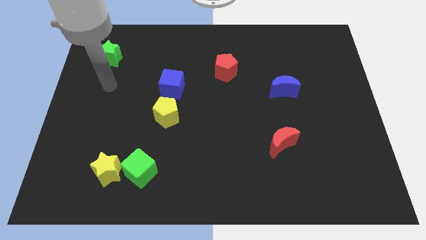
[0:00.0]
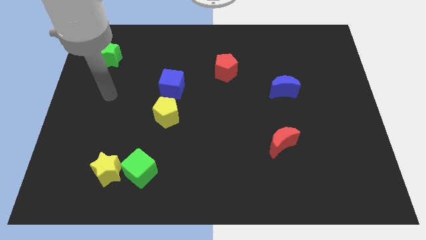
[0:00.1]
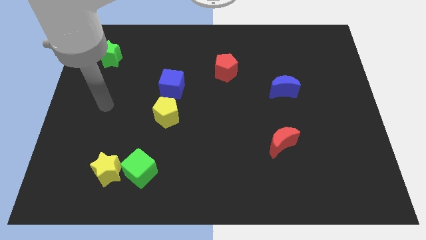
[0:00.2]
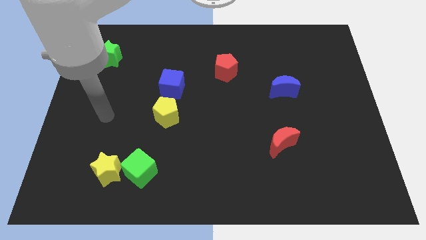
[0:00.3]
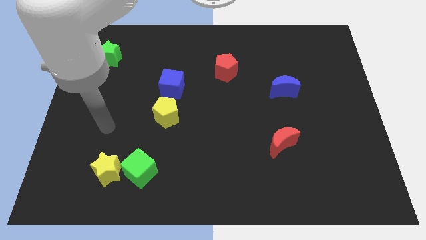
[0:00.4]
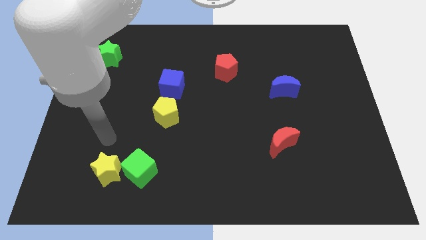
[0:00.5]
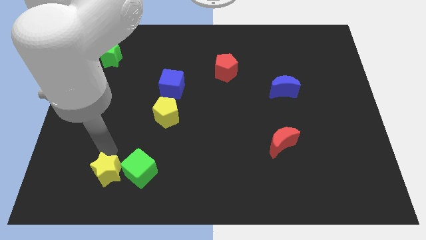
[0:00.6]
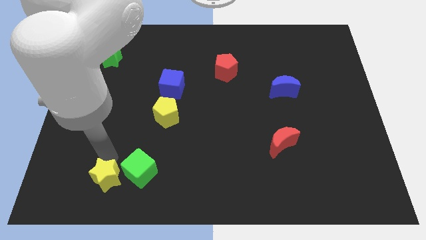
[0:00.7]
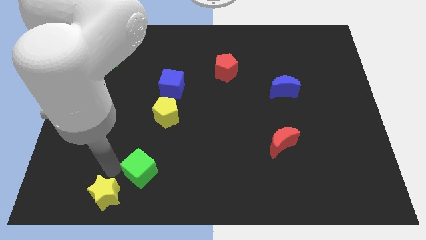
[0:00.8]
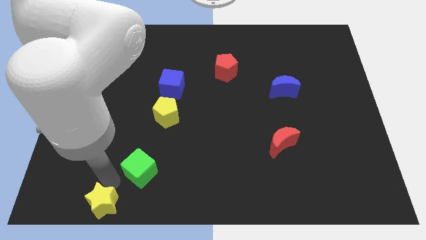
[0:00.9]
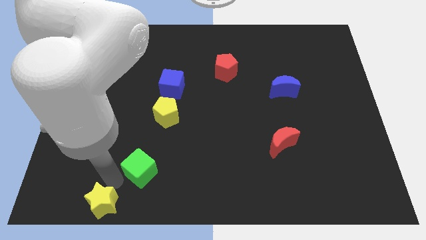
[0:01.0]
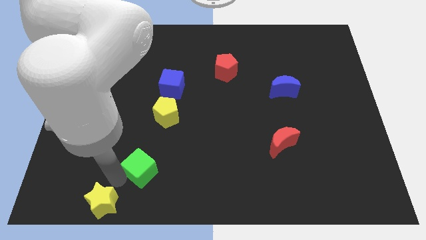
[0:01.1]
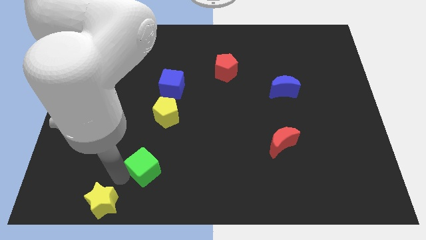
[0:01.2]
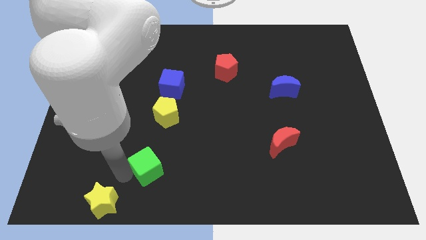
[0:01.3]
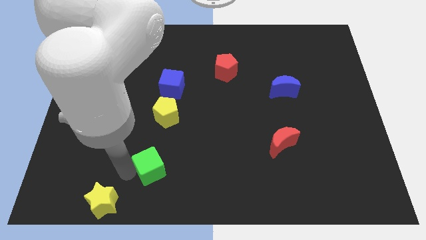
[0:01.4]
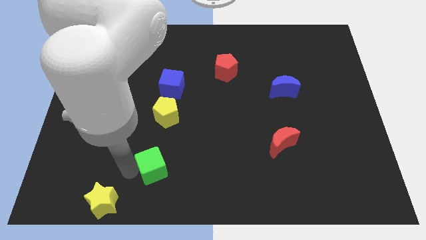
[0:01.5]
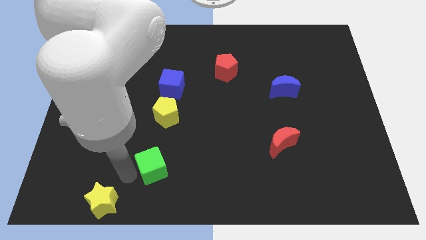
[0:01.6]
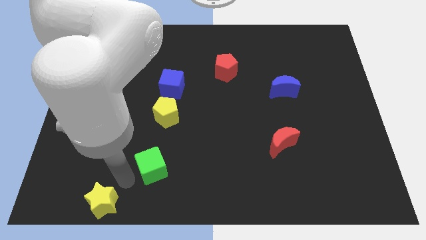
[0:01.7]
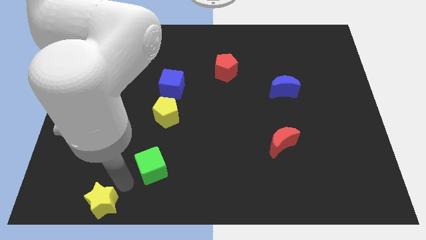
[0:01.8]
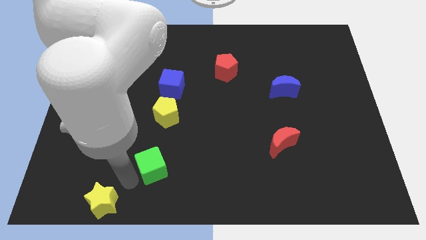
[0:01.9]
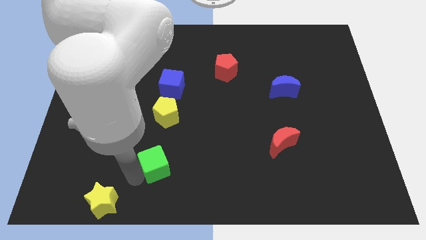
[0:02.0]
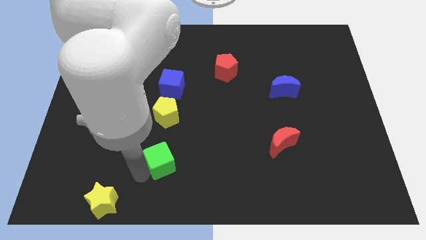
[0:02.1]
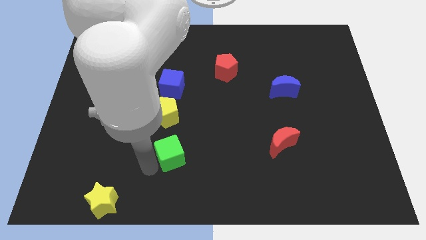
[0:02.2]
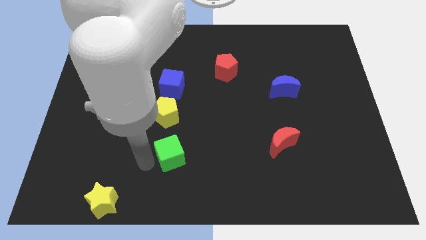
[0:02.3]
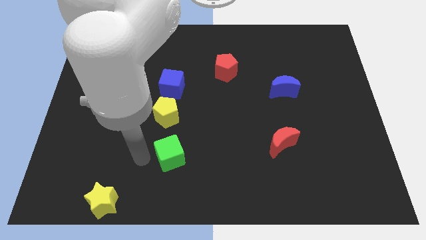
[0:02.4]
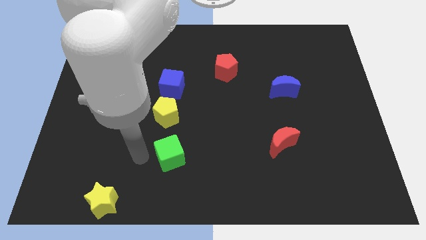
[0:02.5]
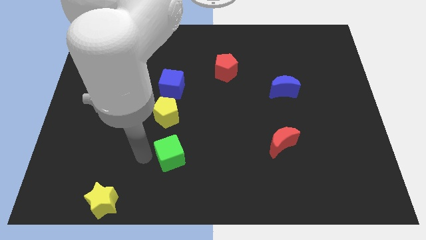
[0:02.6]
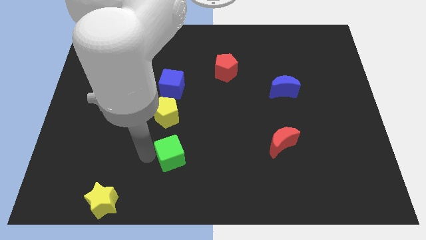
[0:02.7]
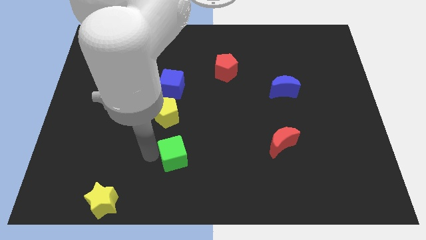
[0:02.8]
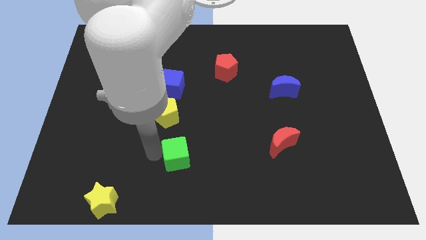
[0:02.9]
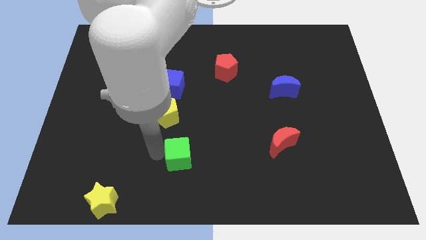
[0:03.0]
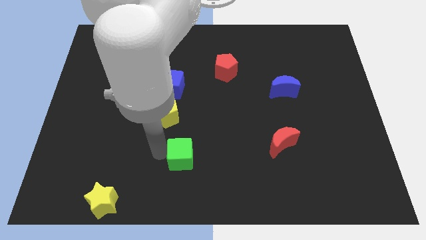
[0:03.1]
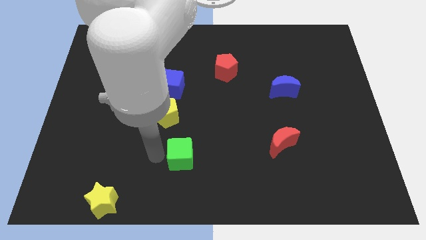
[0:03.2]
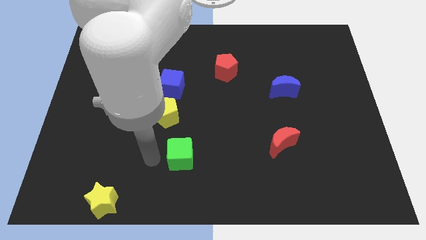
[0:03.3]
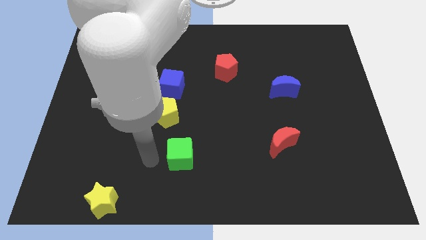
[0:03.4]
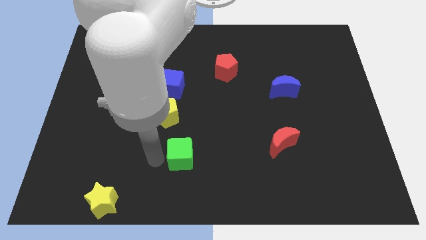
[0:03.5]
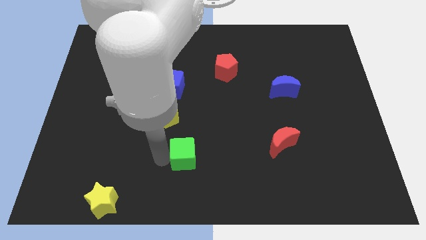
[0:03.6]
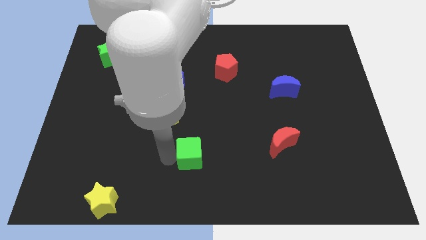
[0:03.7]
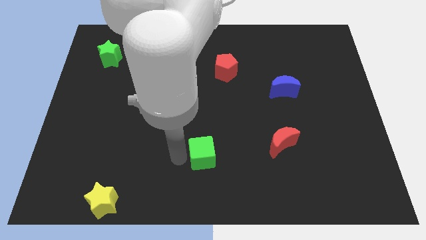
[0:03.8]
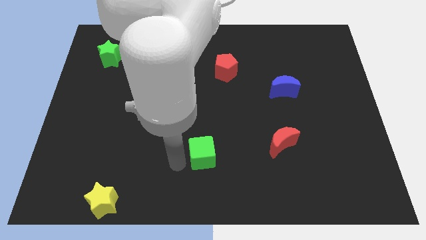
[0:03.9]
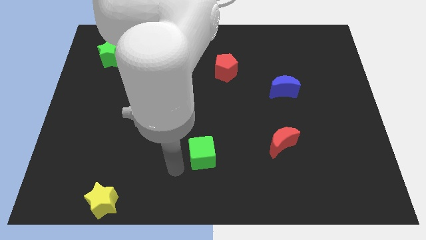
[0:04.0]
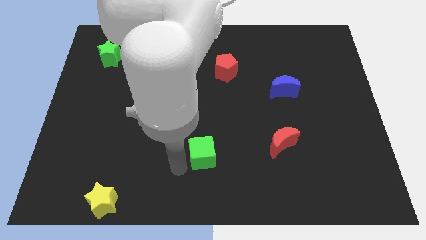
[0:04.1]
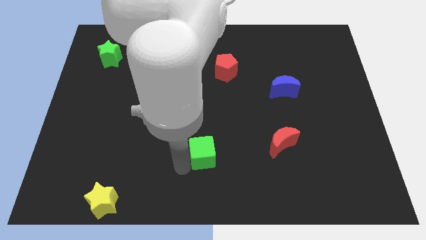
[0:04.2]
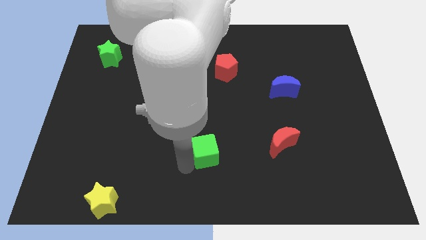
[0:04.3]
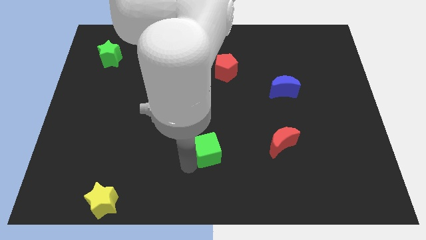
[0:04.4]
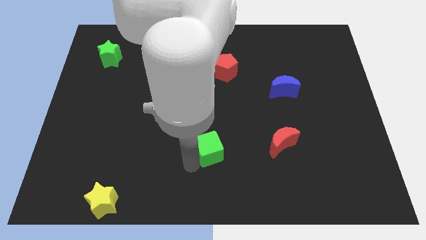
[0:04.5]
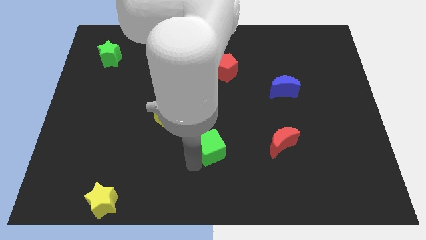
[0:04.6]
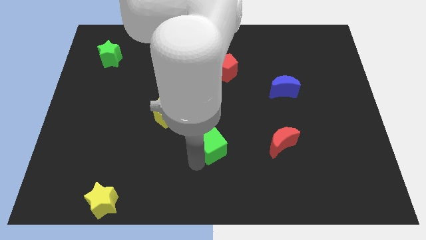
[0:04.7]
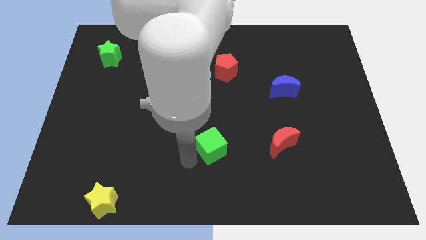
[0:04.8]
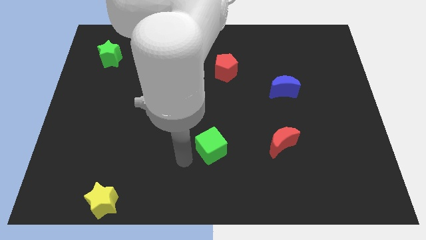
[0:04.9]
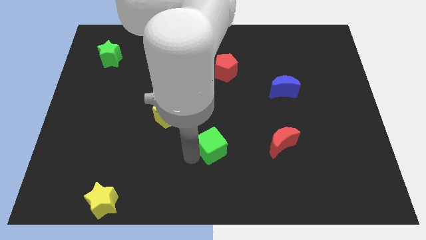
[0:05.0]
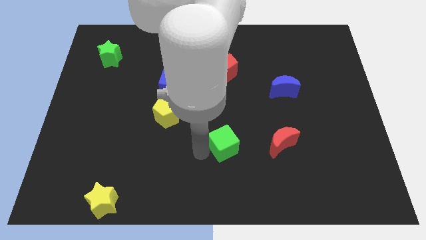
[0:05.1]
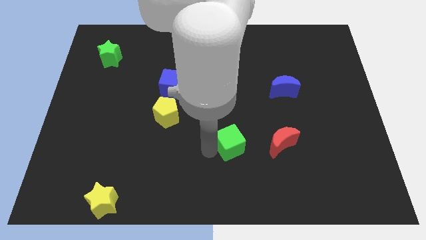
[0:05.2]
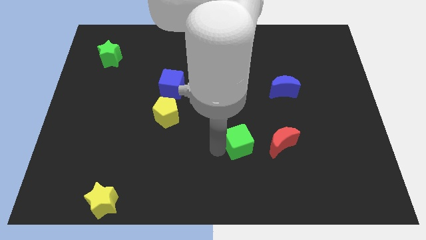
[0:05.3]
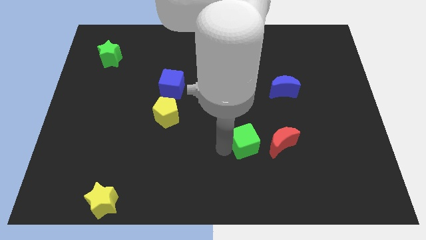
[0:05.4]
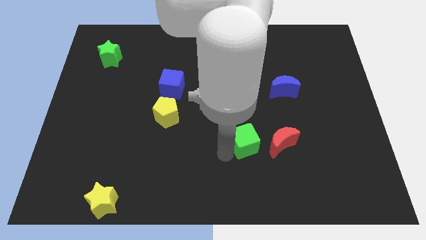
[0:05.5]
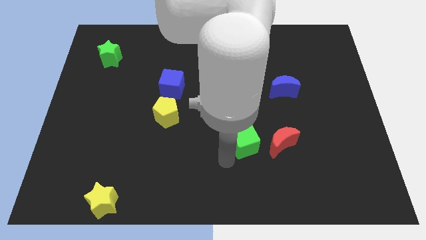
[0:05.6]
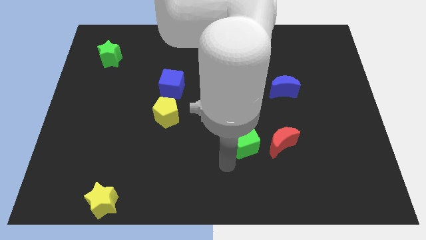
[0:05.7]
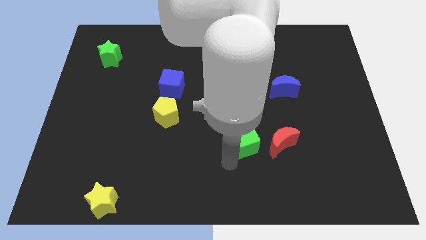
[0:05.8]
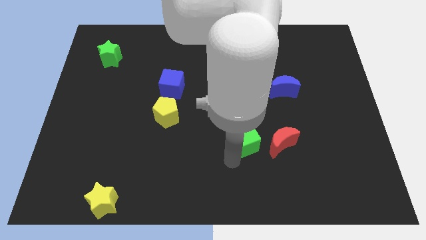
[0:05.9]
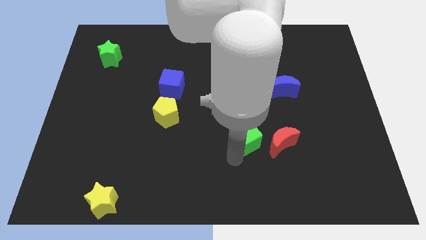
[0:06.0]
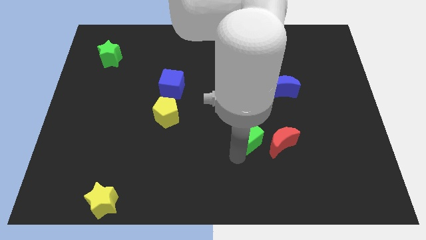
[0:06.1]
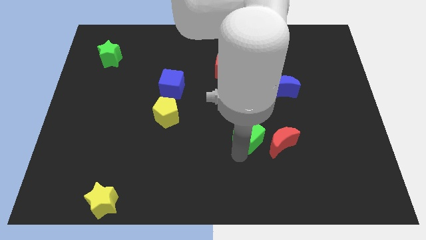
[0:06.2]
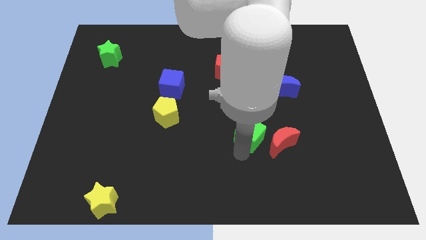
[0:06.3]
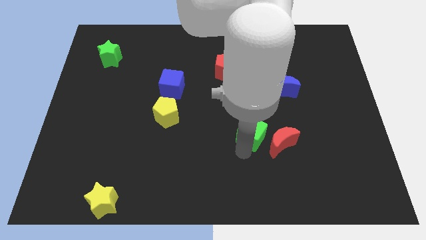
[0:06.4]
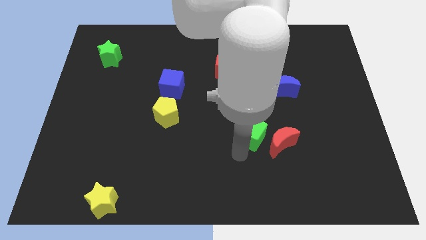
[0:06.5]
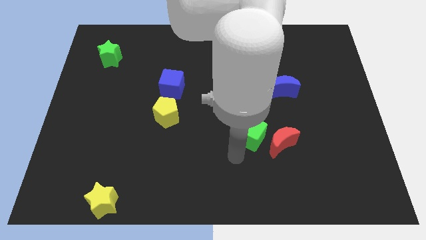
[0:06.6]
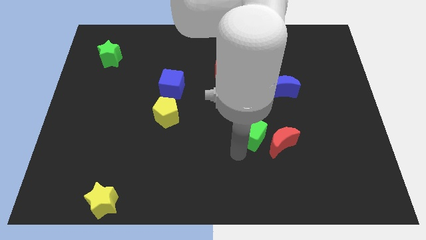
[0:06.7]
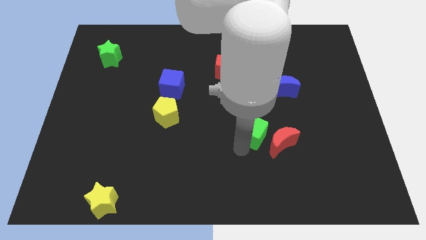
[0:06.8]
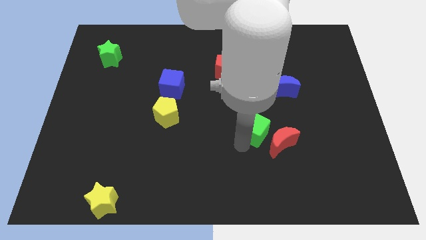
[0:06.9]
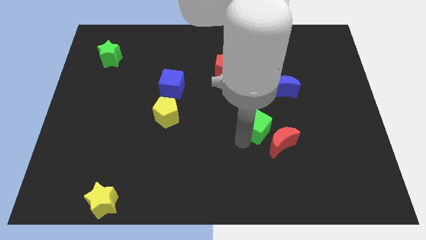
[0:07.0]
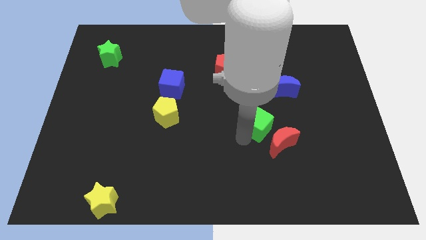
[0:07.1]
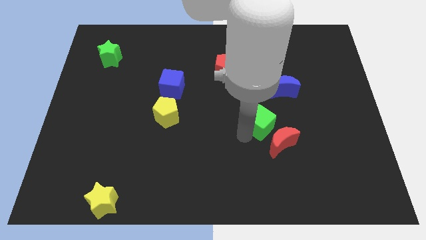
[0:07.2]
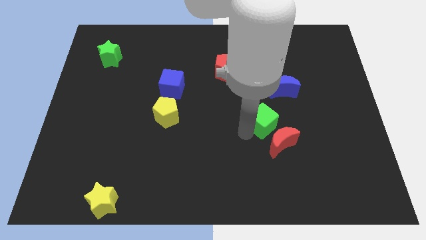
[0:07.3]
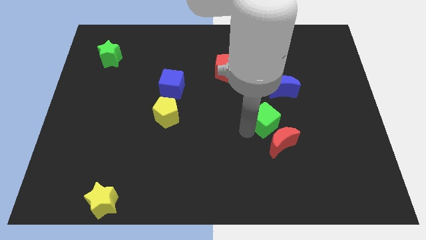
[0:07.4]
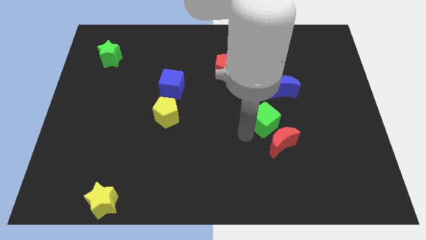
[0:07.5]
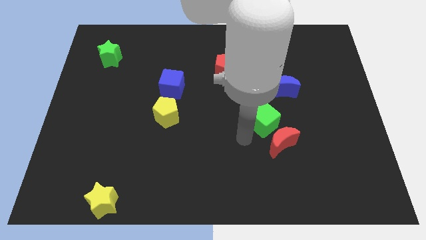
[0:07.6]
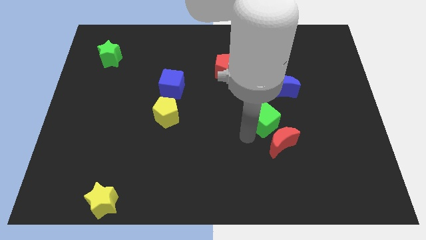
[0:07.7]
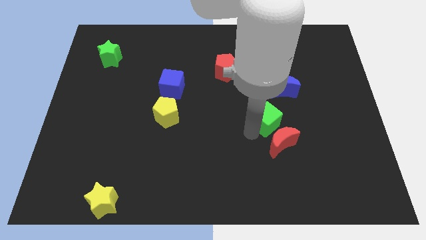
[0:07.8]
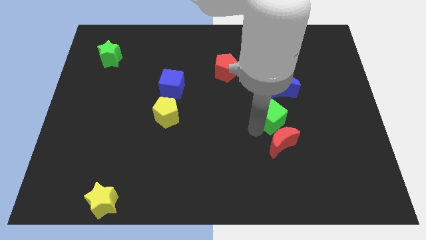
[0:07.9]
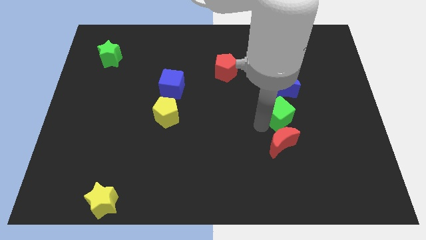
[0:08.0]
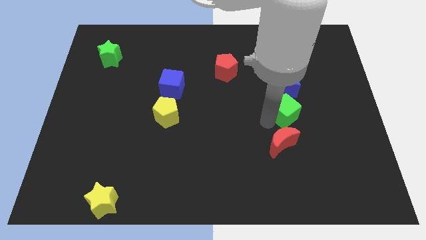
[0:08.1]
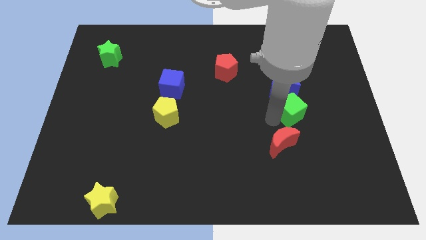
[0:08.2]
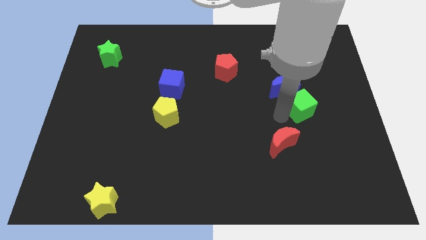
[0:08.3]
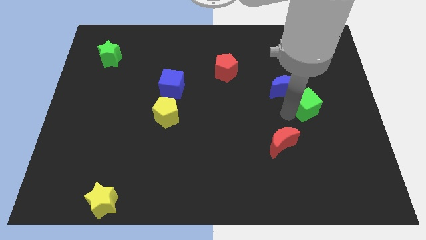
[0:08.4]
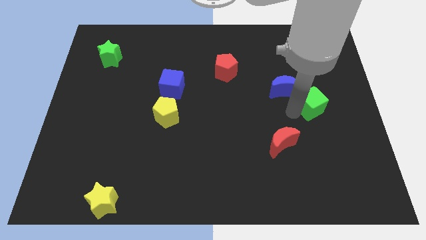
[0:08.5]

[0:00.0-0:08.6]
move the green cube to the right side of the blue moon
